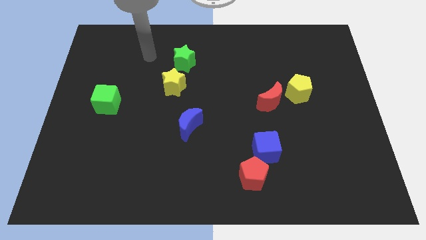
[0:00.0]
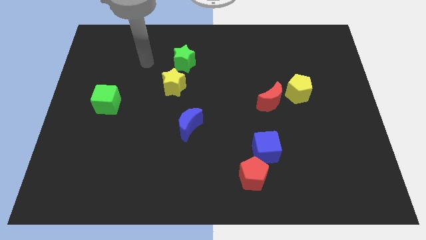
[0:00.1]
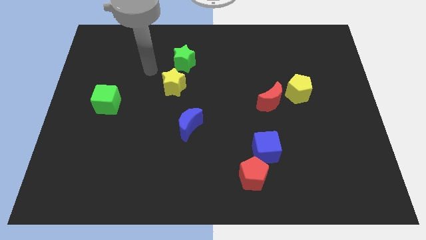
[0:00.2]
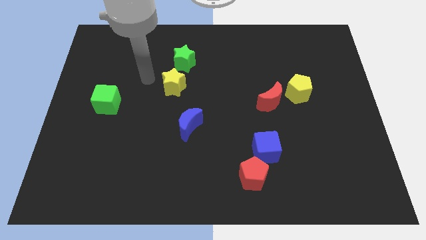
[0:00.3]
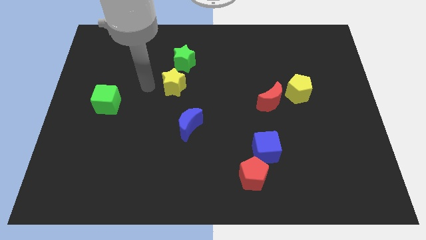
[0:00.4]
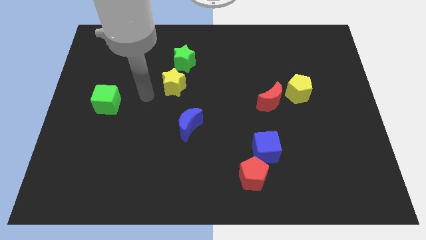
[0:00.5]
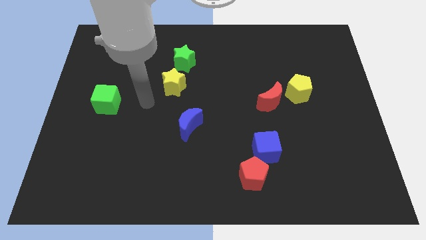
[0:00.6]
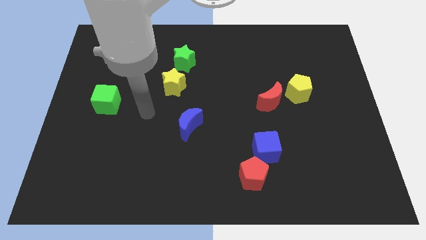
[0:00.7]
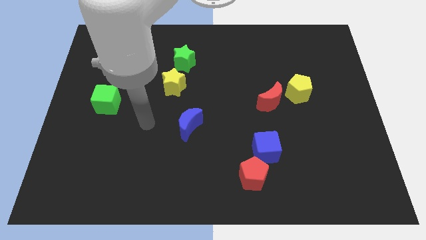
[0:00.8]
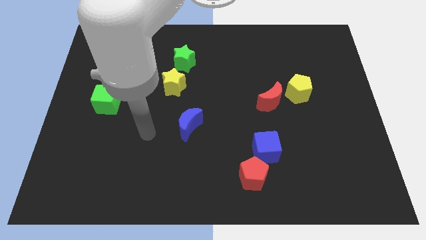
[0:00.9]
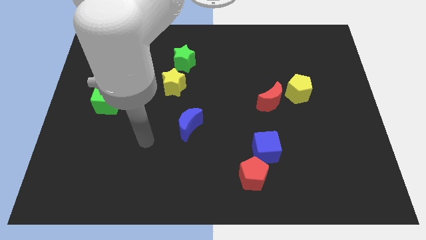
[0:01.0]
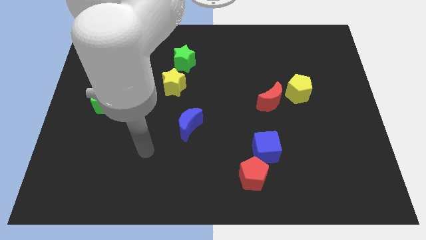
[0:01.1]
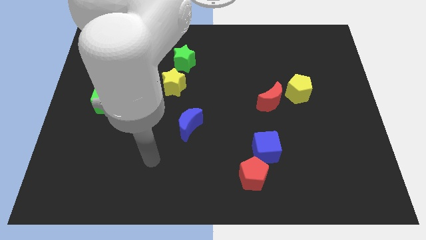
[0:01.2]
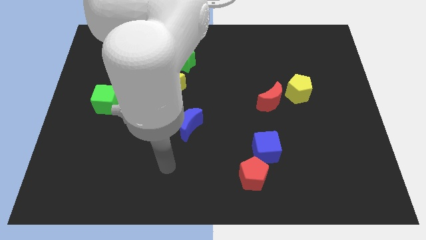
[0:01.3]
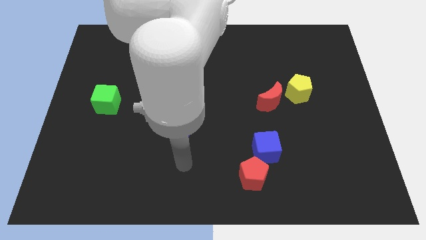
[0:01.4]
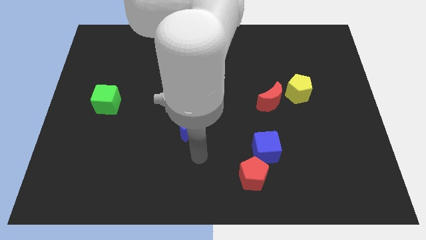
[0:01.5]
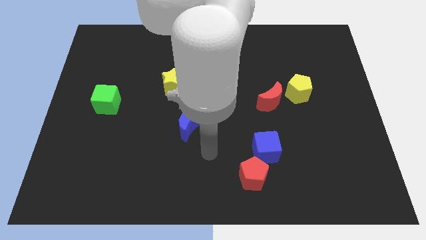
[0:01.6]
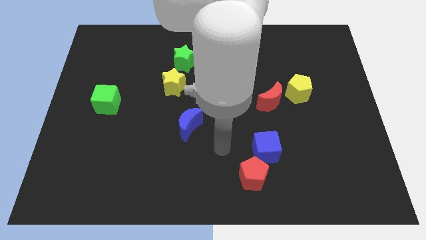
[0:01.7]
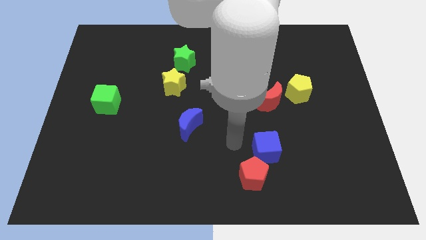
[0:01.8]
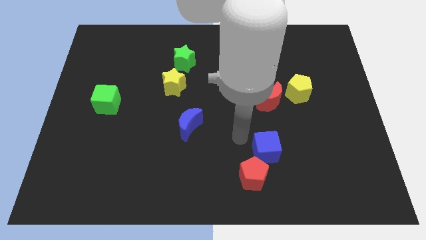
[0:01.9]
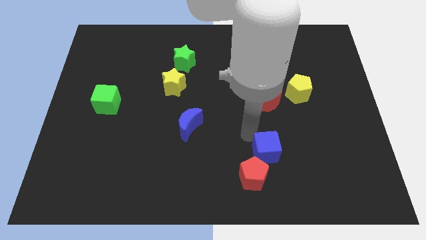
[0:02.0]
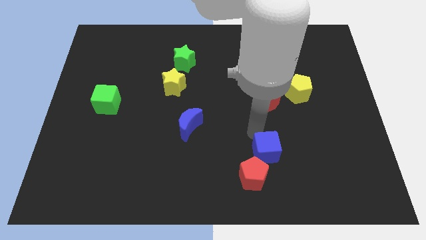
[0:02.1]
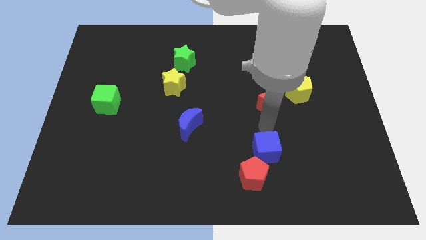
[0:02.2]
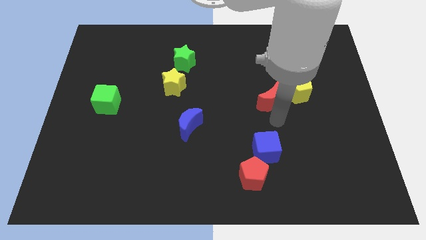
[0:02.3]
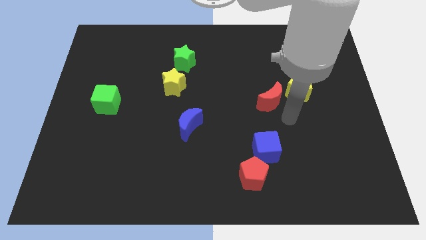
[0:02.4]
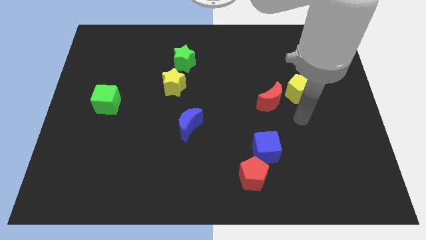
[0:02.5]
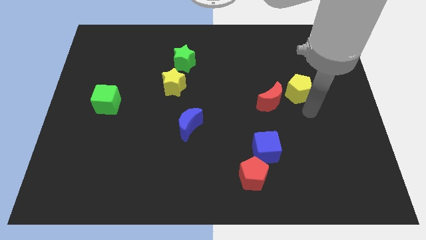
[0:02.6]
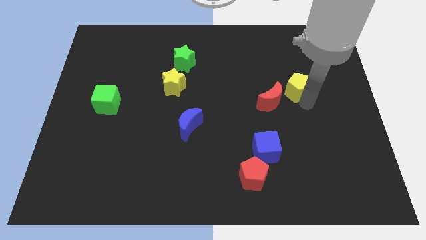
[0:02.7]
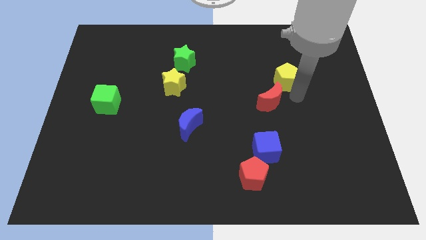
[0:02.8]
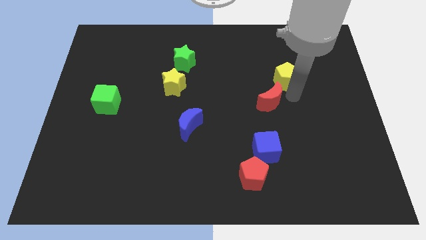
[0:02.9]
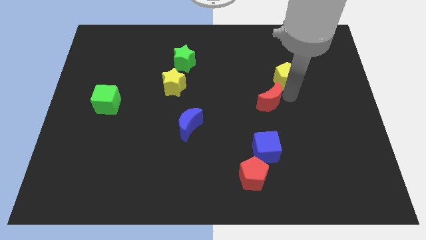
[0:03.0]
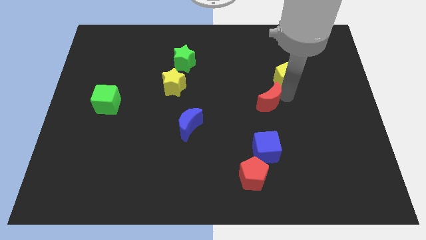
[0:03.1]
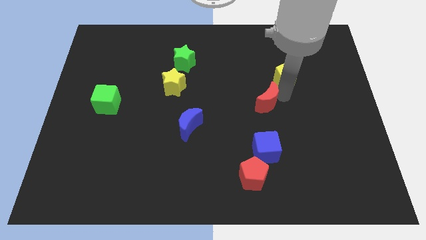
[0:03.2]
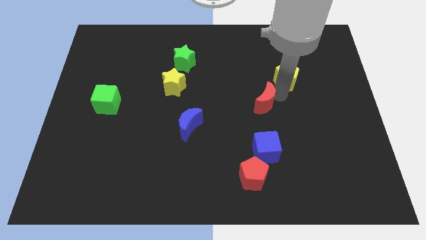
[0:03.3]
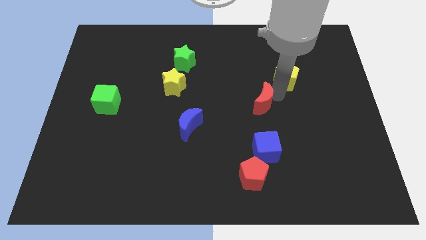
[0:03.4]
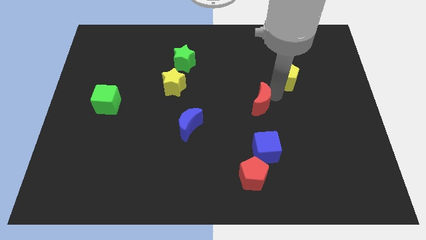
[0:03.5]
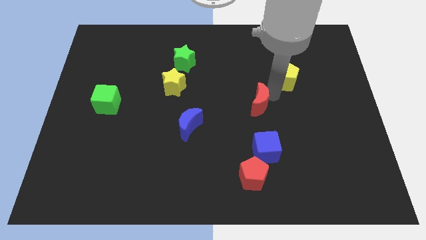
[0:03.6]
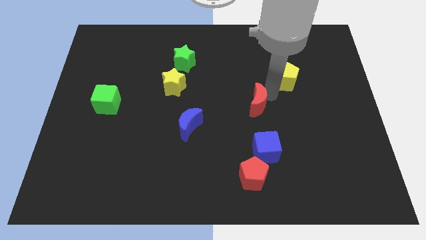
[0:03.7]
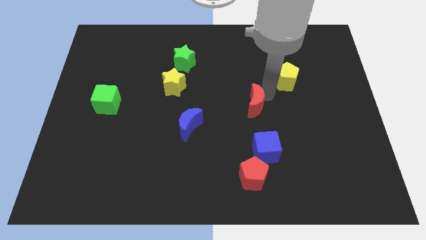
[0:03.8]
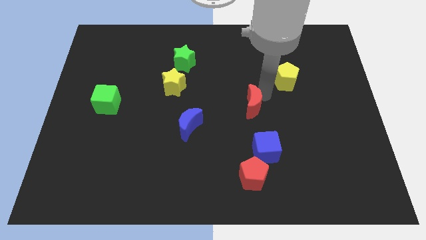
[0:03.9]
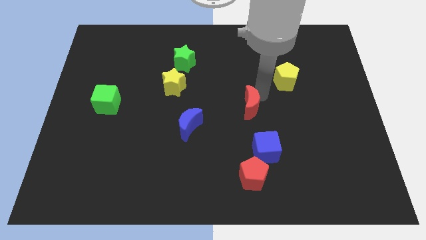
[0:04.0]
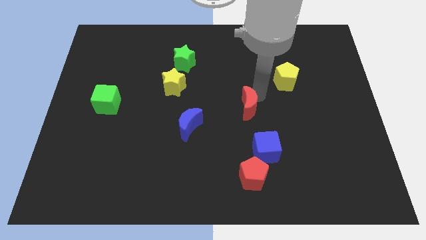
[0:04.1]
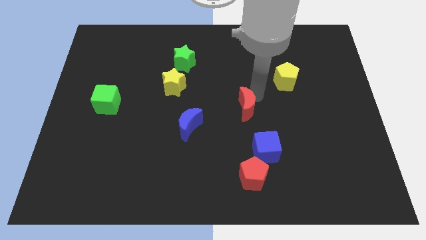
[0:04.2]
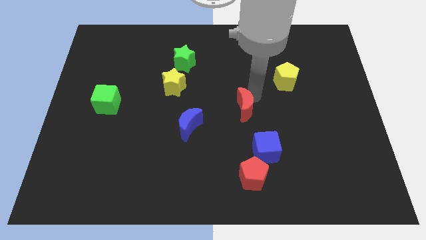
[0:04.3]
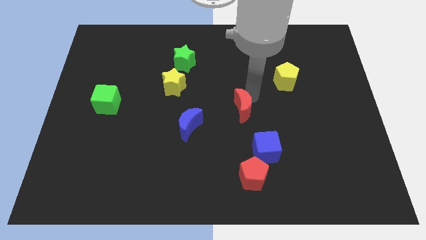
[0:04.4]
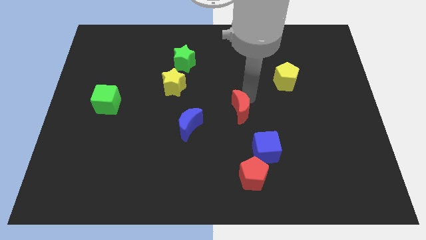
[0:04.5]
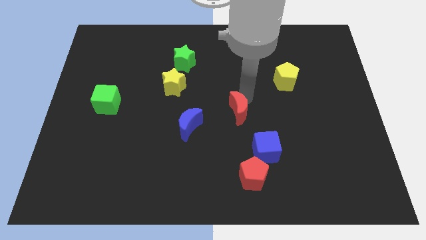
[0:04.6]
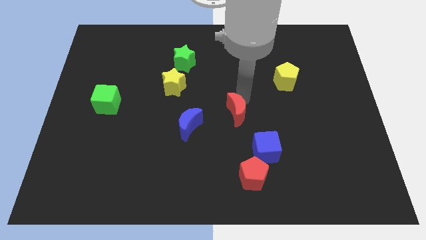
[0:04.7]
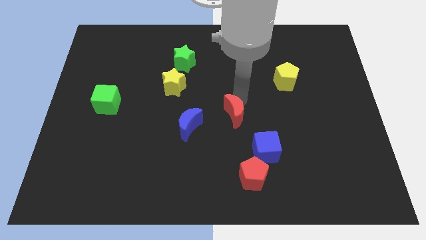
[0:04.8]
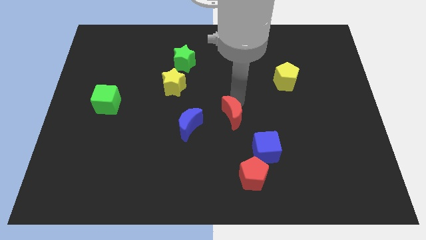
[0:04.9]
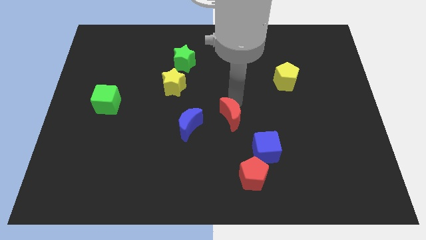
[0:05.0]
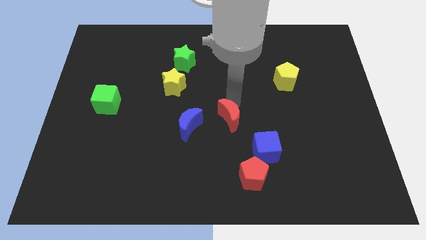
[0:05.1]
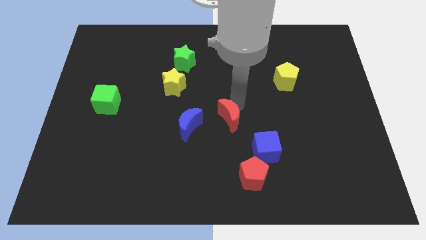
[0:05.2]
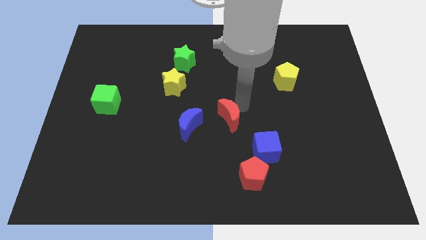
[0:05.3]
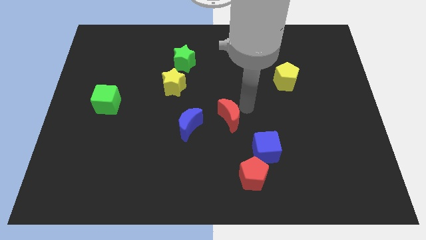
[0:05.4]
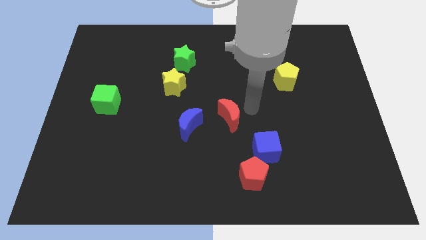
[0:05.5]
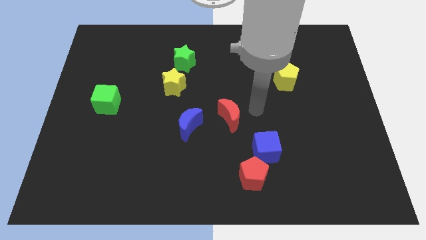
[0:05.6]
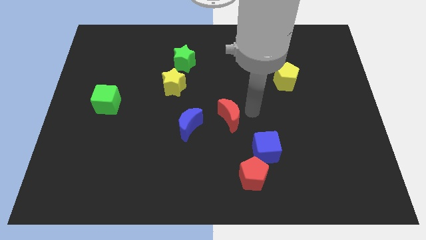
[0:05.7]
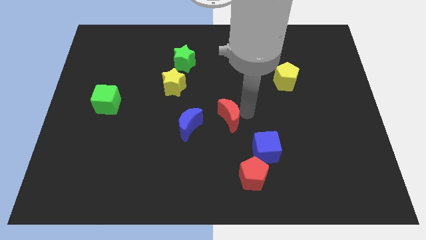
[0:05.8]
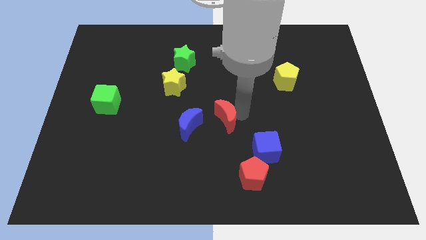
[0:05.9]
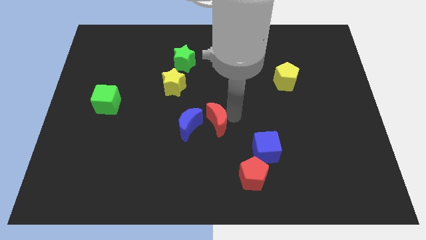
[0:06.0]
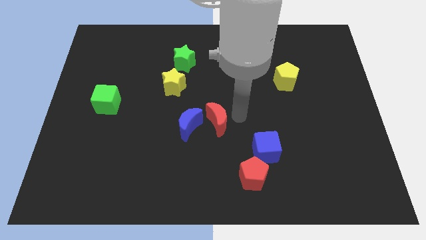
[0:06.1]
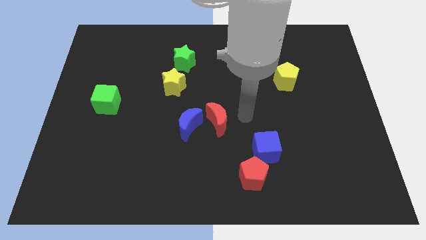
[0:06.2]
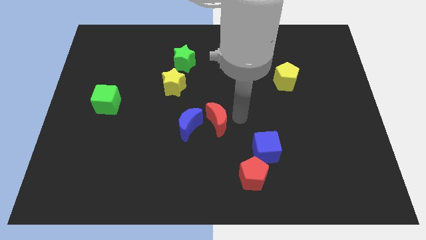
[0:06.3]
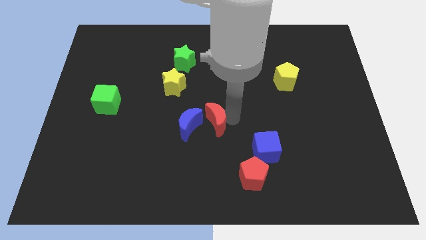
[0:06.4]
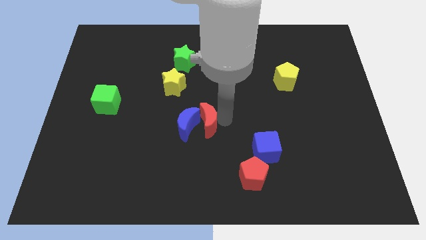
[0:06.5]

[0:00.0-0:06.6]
put the red moon close to the blue moon

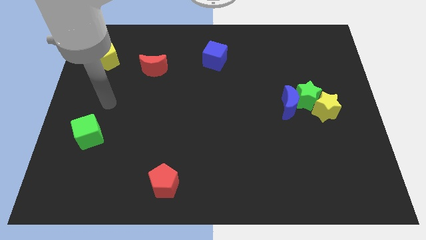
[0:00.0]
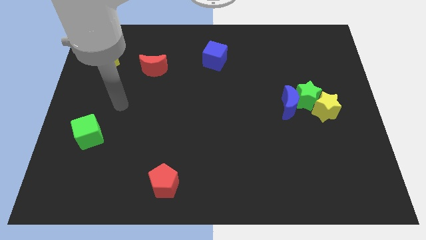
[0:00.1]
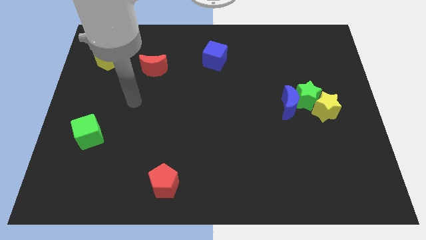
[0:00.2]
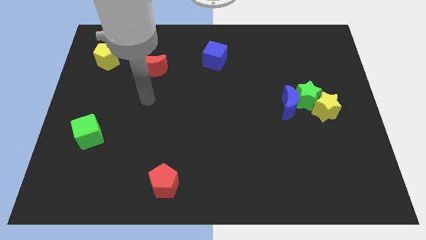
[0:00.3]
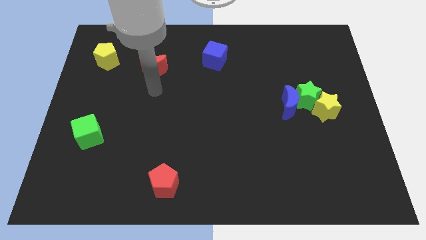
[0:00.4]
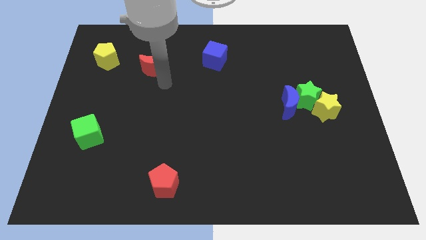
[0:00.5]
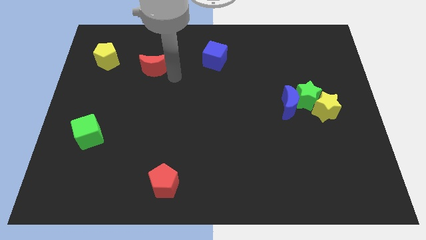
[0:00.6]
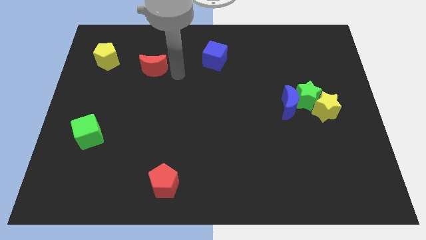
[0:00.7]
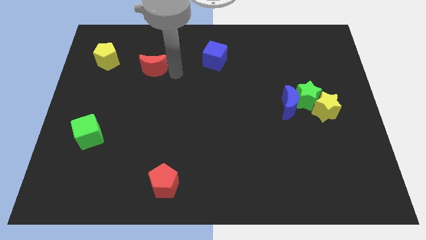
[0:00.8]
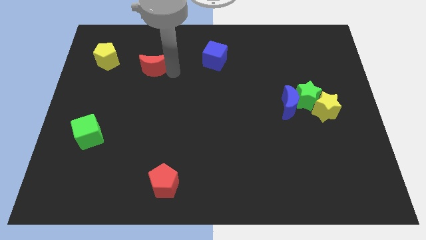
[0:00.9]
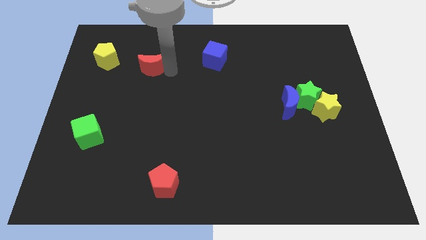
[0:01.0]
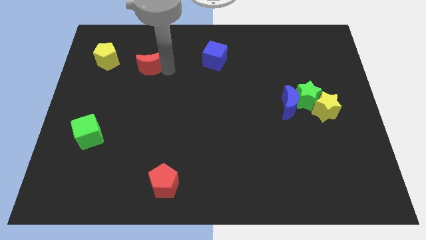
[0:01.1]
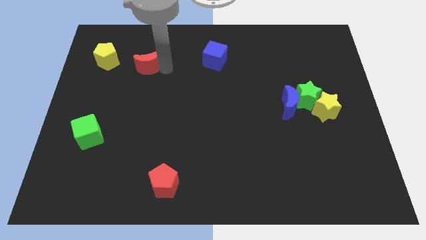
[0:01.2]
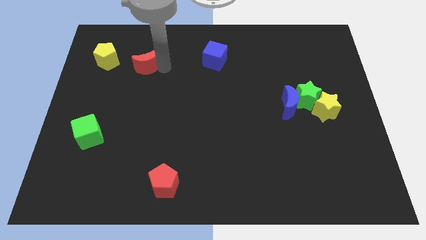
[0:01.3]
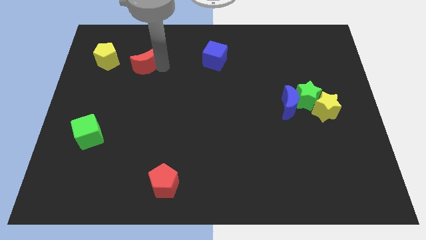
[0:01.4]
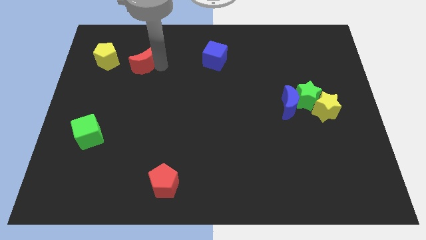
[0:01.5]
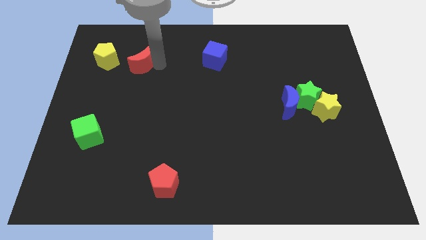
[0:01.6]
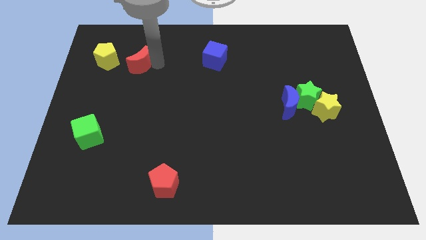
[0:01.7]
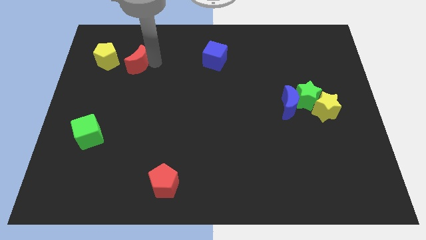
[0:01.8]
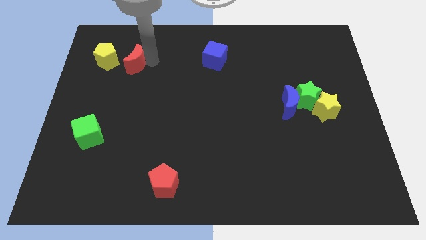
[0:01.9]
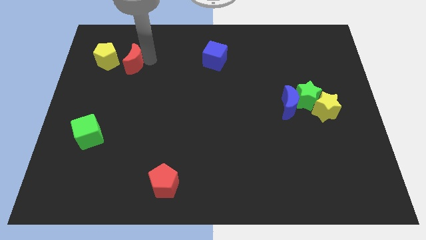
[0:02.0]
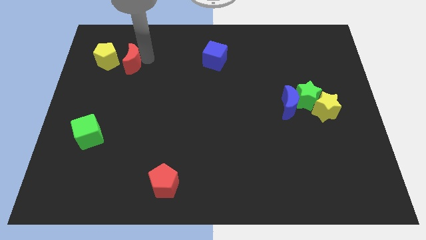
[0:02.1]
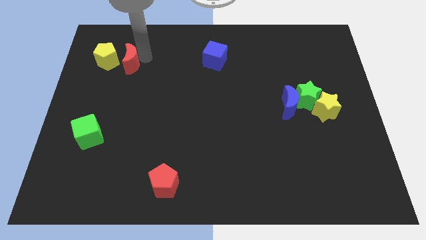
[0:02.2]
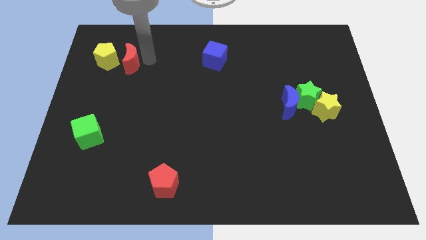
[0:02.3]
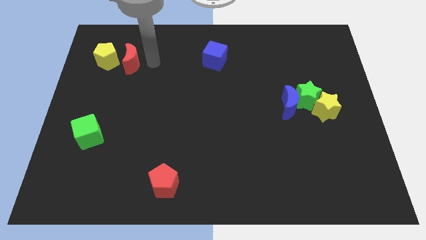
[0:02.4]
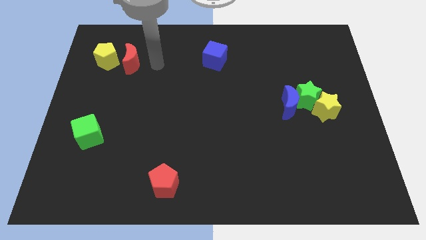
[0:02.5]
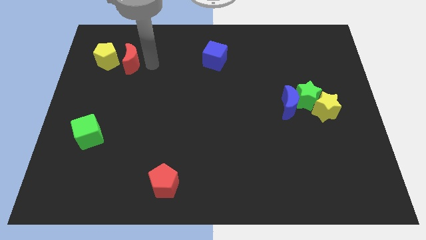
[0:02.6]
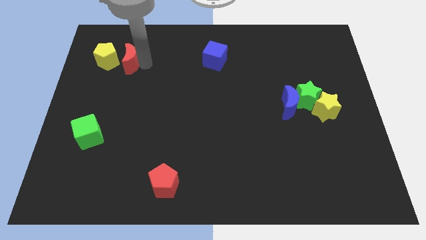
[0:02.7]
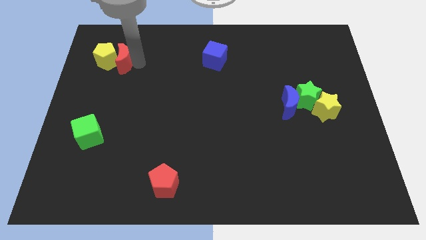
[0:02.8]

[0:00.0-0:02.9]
move the red moon to the yellow pentagon
